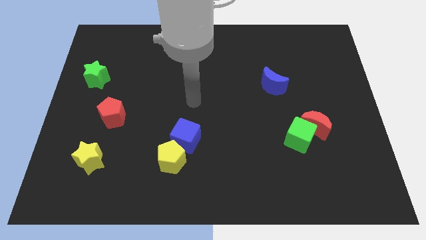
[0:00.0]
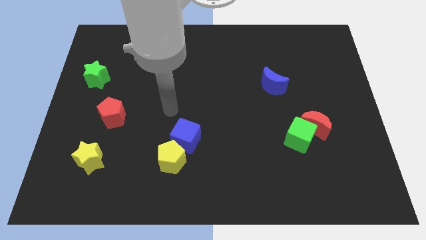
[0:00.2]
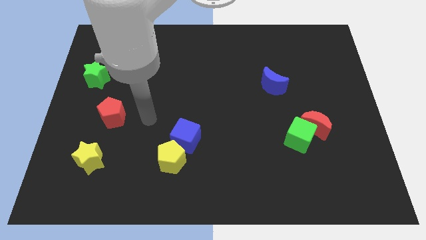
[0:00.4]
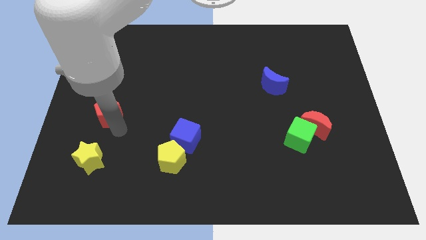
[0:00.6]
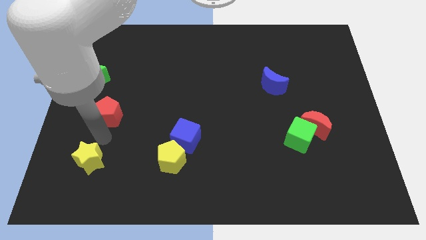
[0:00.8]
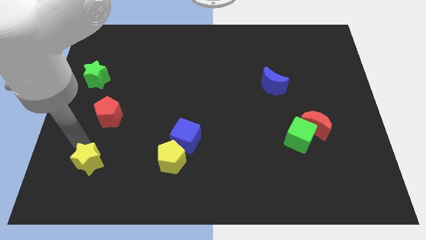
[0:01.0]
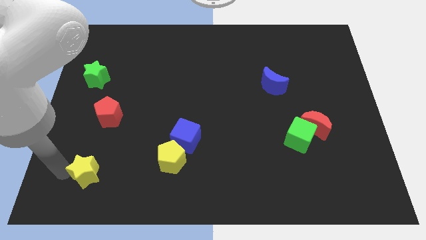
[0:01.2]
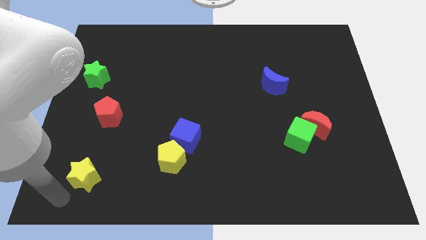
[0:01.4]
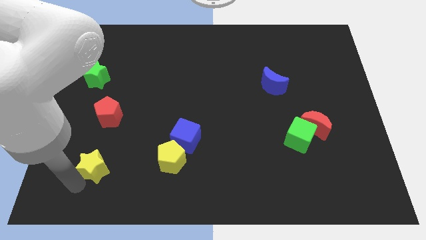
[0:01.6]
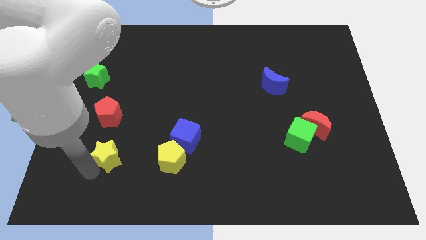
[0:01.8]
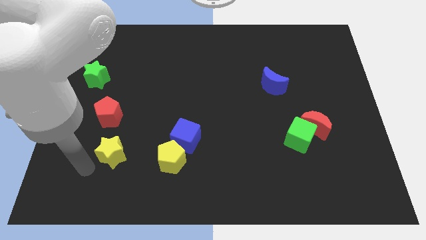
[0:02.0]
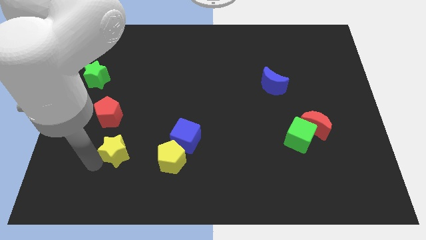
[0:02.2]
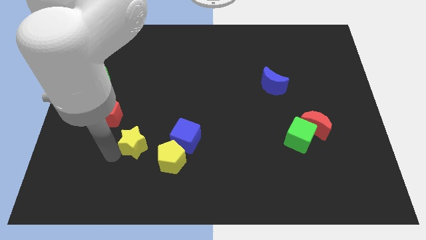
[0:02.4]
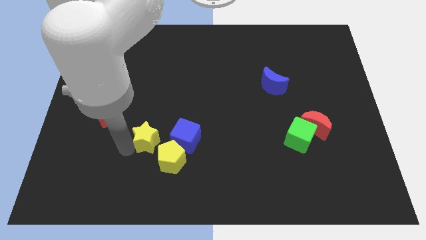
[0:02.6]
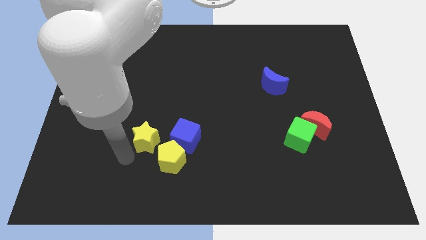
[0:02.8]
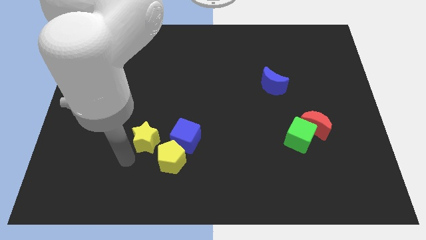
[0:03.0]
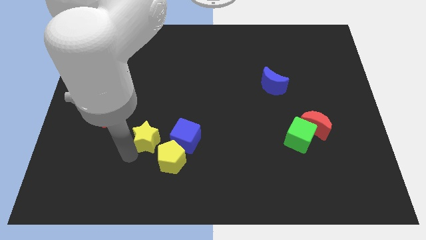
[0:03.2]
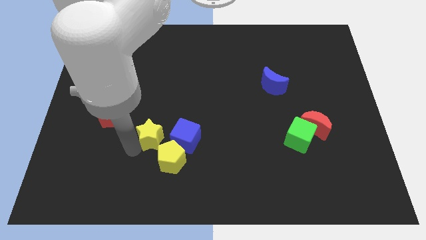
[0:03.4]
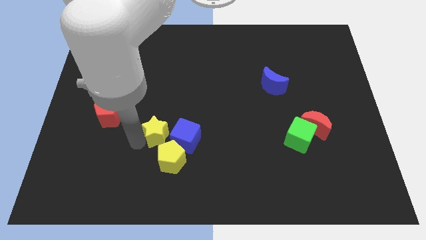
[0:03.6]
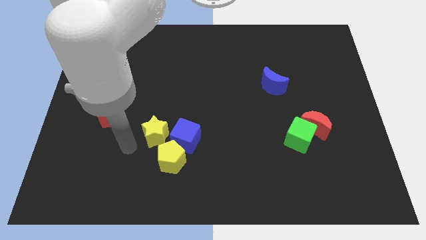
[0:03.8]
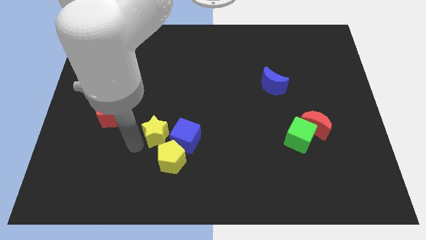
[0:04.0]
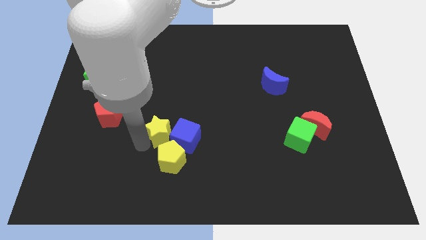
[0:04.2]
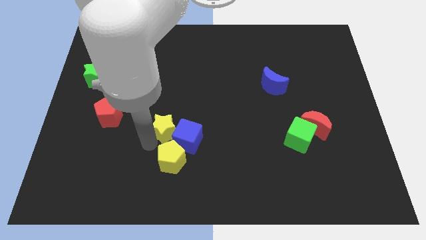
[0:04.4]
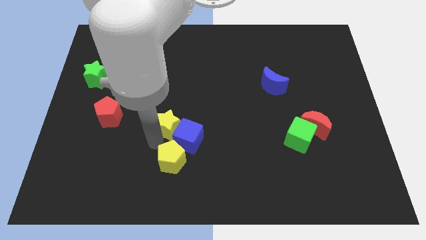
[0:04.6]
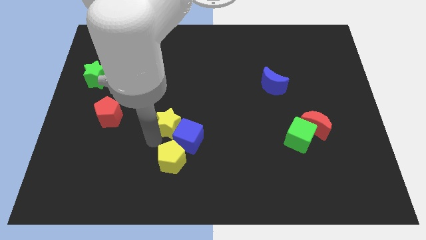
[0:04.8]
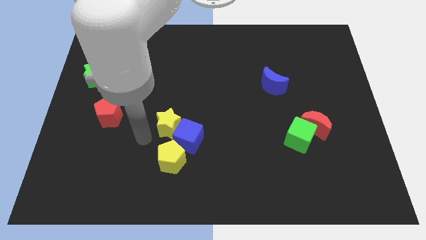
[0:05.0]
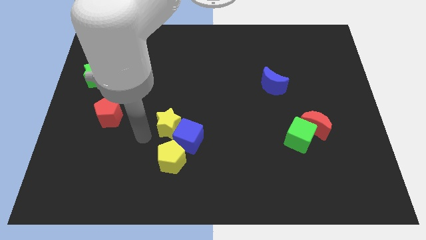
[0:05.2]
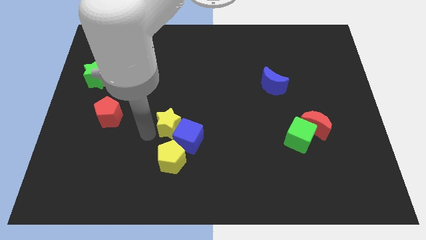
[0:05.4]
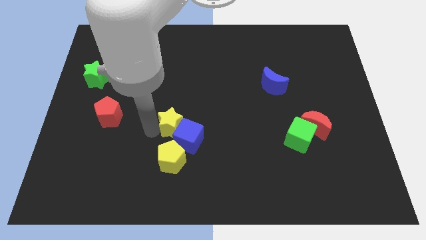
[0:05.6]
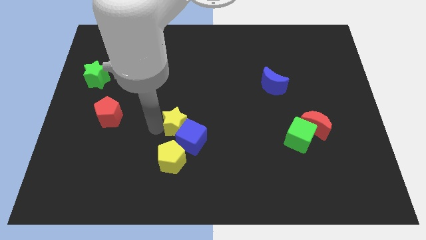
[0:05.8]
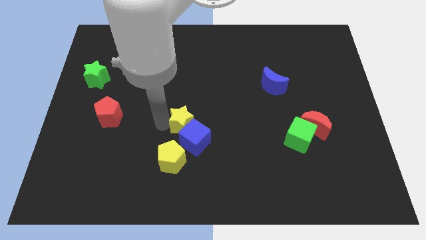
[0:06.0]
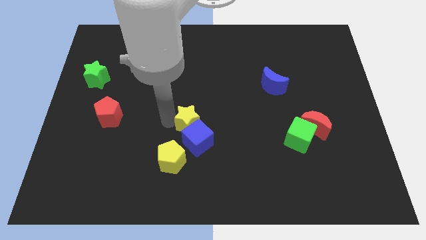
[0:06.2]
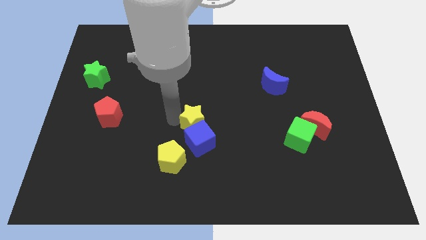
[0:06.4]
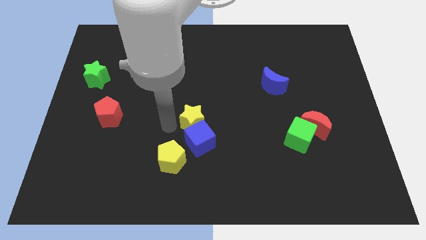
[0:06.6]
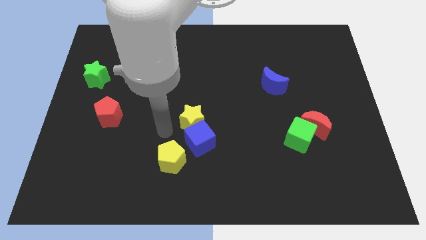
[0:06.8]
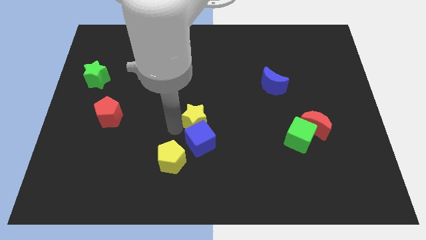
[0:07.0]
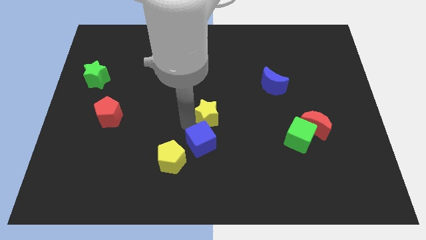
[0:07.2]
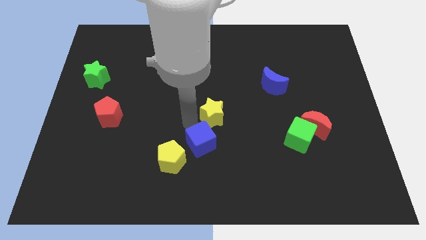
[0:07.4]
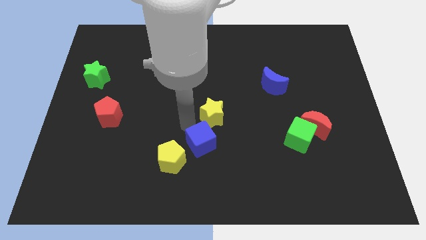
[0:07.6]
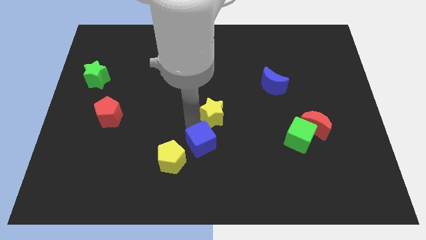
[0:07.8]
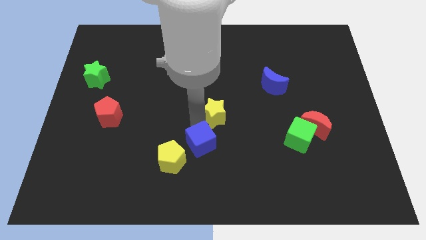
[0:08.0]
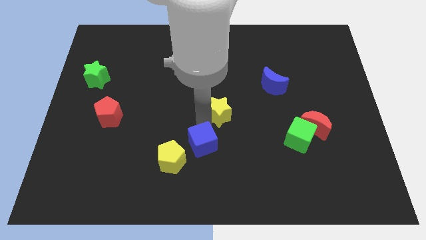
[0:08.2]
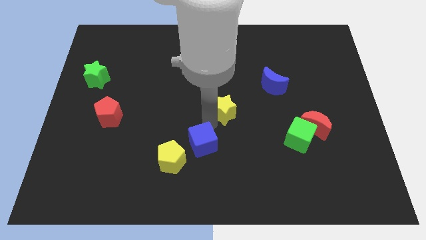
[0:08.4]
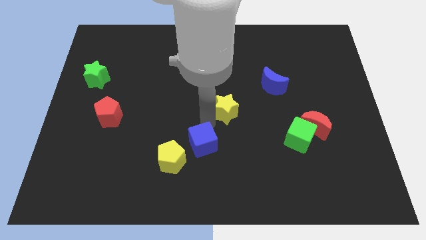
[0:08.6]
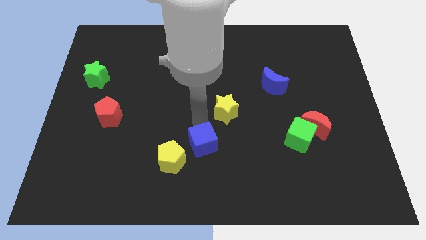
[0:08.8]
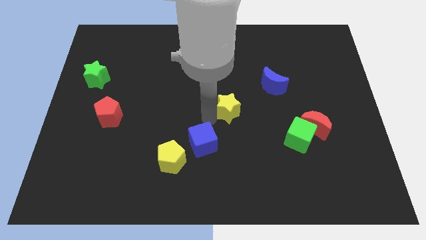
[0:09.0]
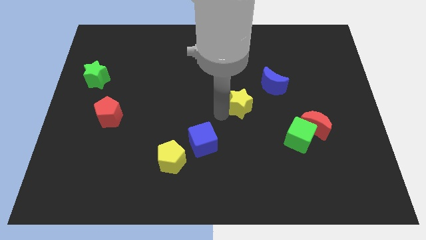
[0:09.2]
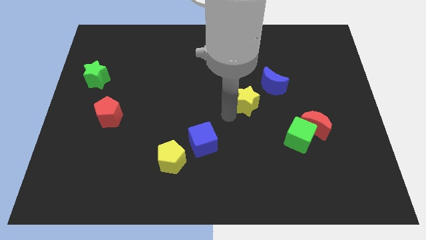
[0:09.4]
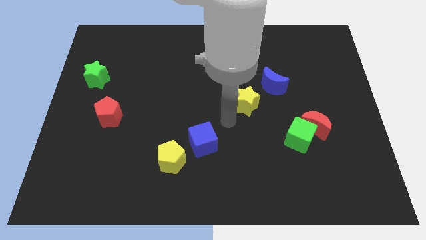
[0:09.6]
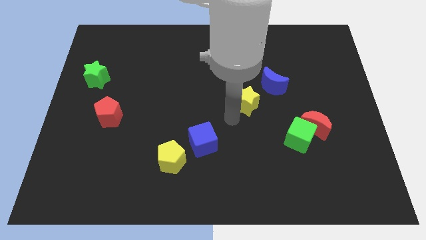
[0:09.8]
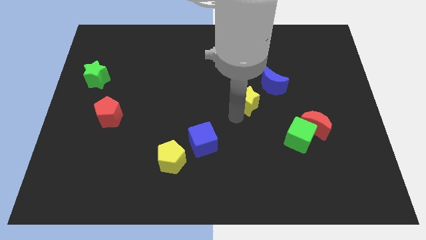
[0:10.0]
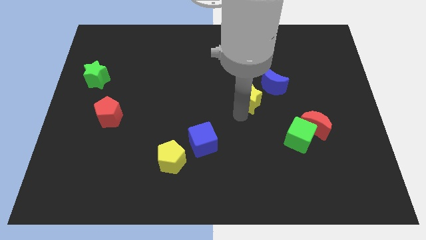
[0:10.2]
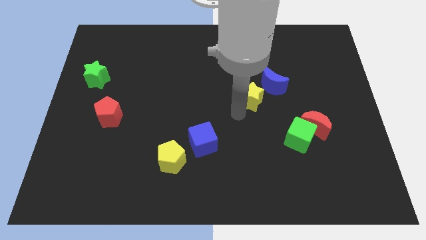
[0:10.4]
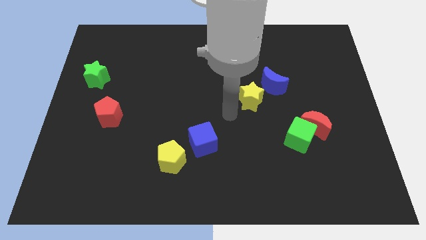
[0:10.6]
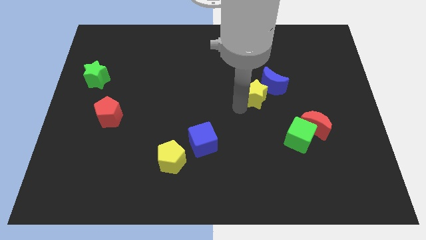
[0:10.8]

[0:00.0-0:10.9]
slide the yellow star close to the blue moon

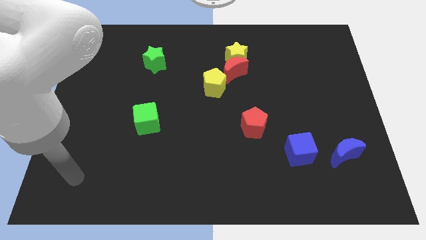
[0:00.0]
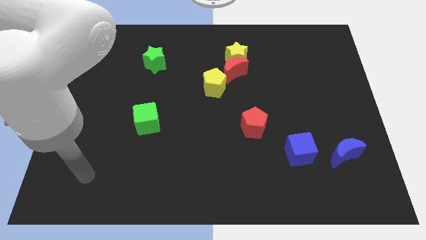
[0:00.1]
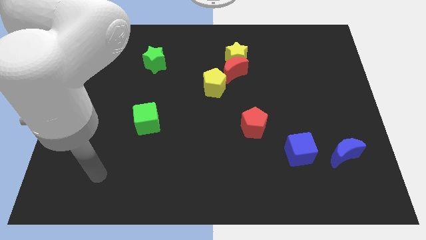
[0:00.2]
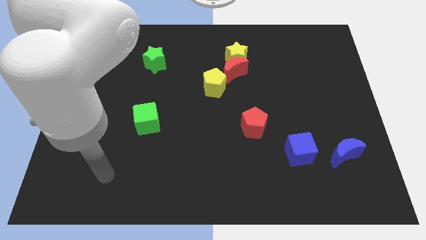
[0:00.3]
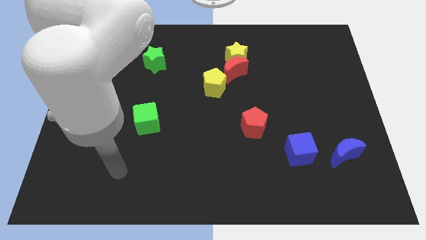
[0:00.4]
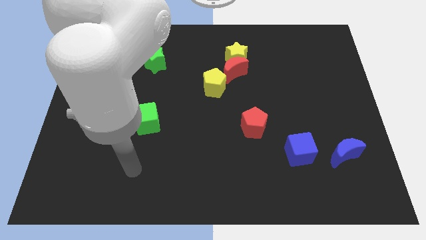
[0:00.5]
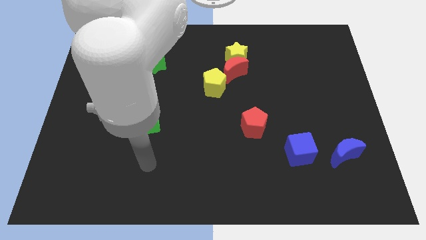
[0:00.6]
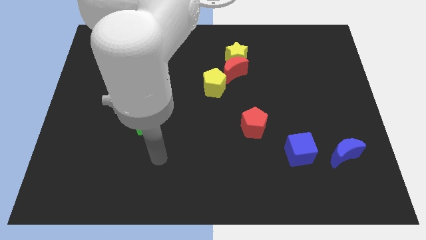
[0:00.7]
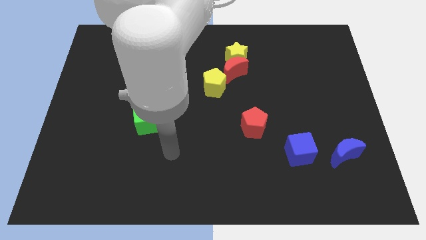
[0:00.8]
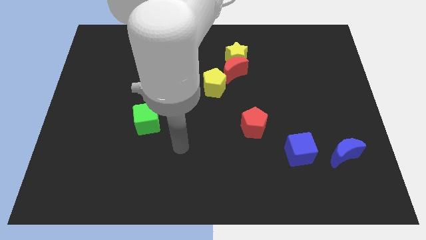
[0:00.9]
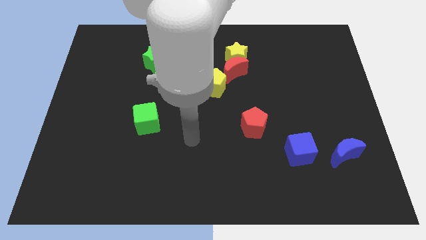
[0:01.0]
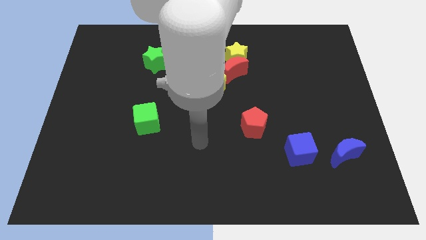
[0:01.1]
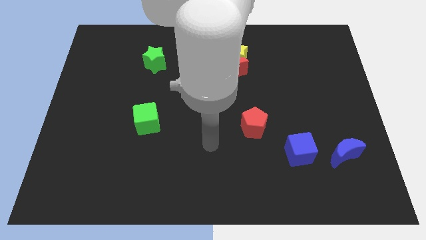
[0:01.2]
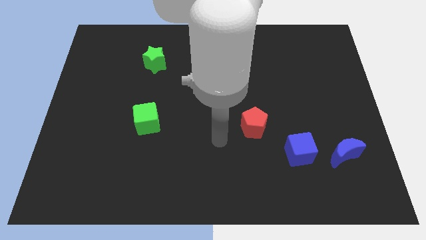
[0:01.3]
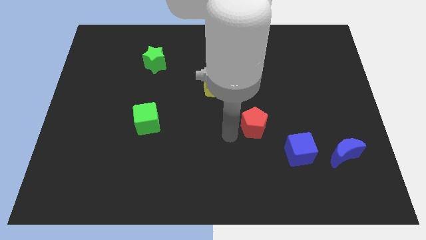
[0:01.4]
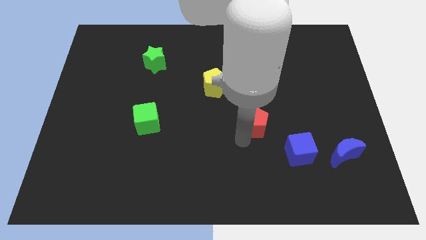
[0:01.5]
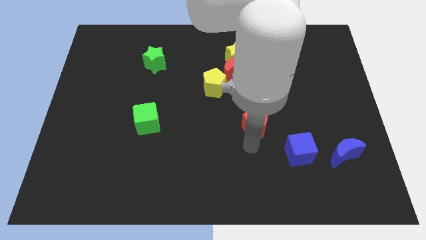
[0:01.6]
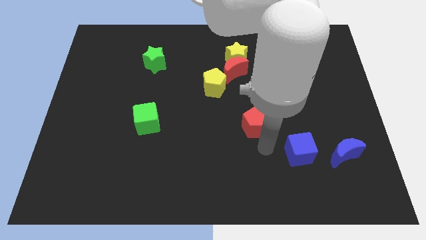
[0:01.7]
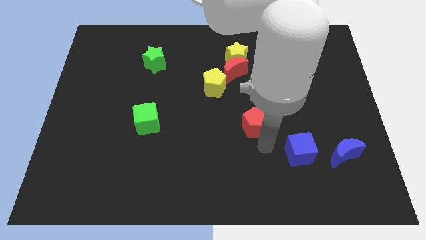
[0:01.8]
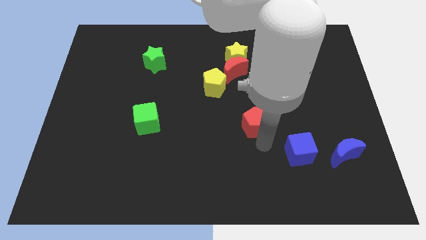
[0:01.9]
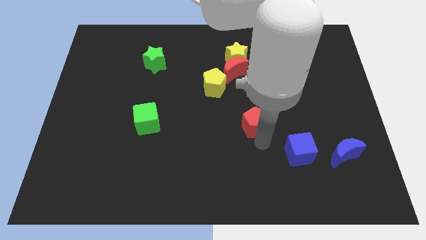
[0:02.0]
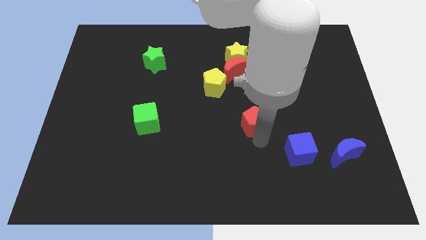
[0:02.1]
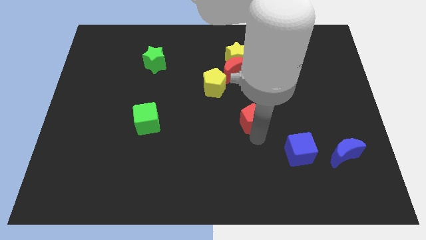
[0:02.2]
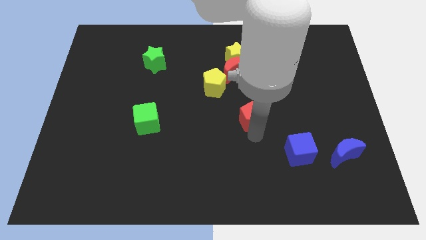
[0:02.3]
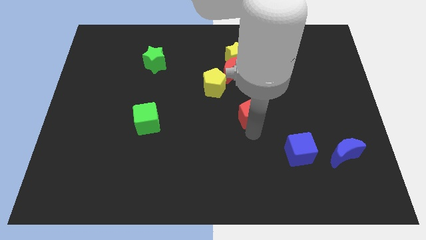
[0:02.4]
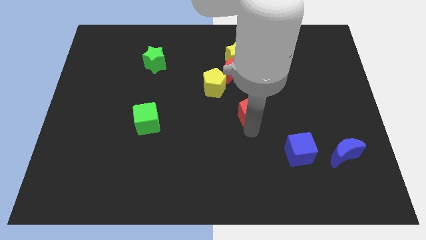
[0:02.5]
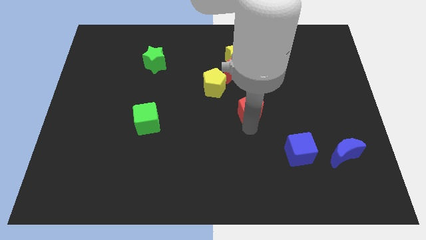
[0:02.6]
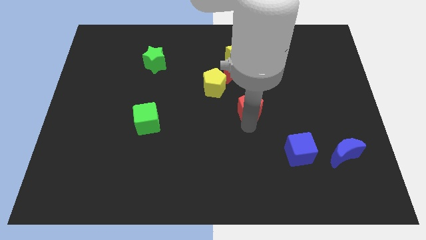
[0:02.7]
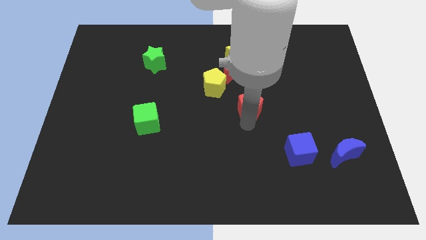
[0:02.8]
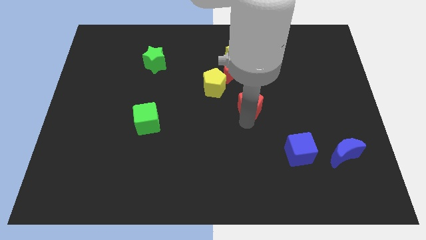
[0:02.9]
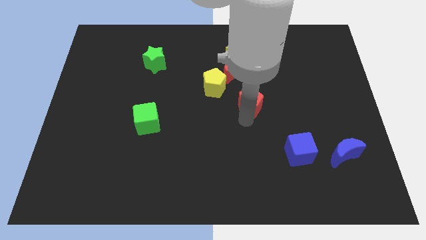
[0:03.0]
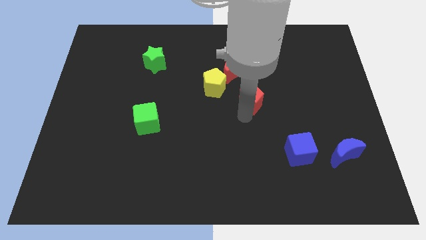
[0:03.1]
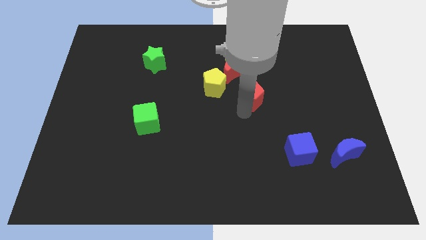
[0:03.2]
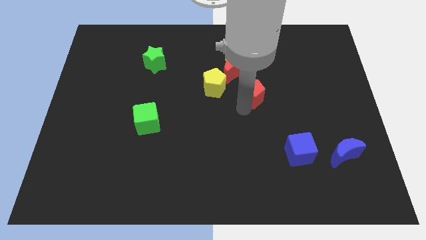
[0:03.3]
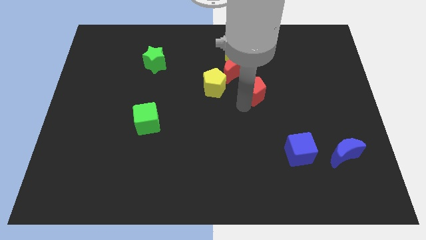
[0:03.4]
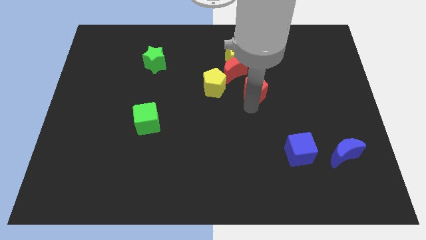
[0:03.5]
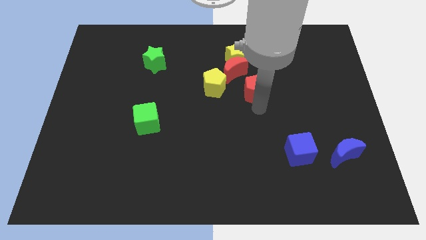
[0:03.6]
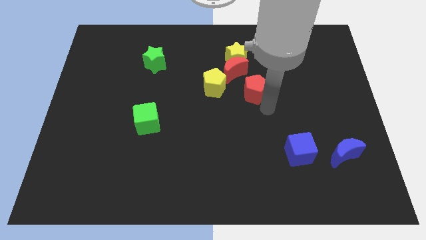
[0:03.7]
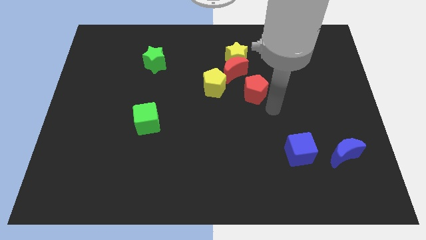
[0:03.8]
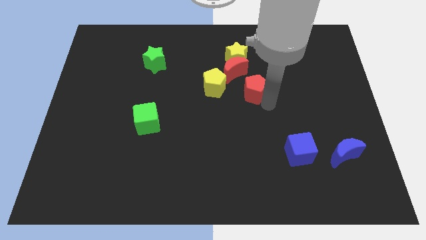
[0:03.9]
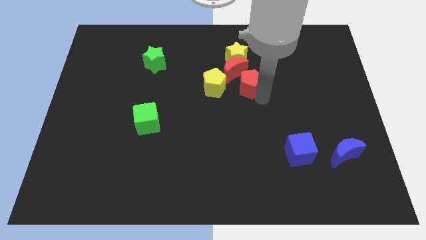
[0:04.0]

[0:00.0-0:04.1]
push the red pentagon to the red moon
